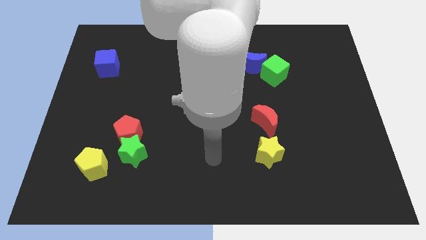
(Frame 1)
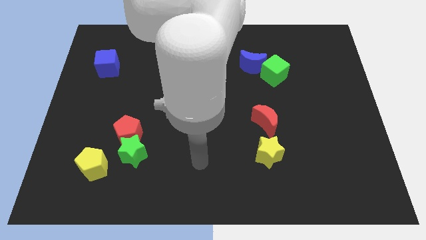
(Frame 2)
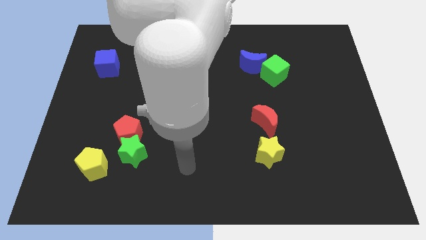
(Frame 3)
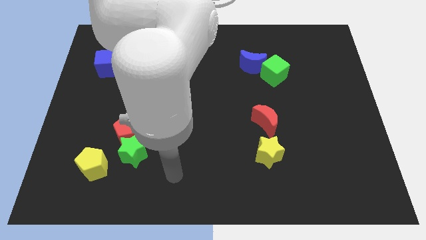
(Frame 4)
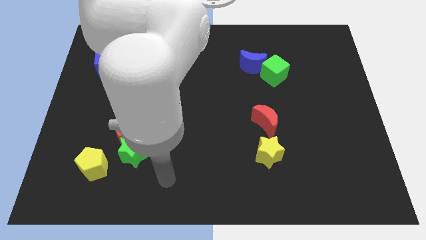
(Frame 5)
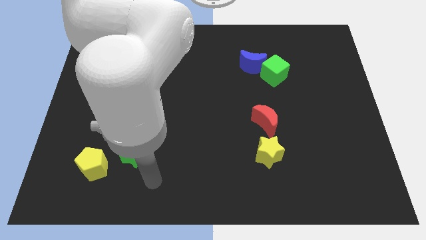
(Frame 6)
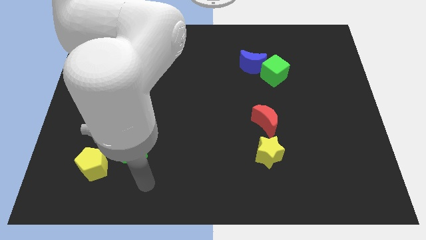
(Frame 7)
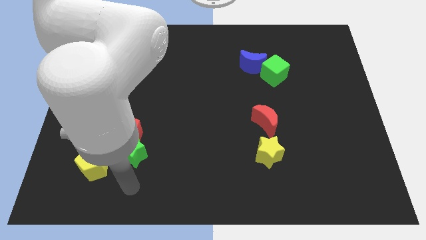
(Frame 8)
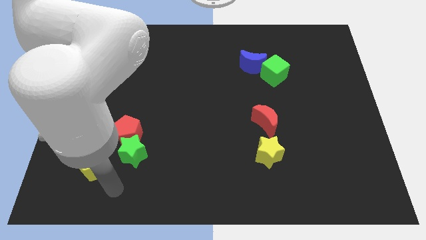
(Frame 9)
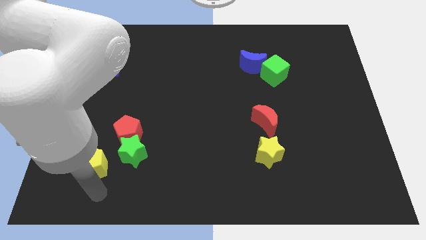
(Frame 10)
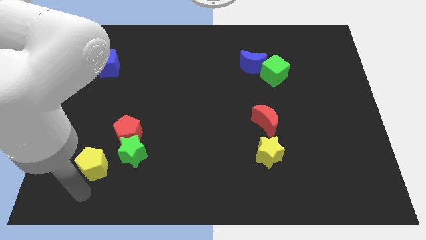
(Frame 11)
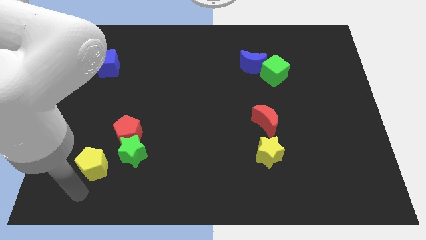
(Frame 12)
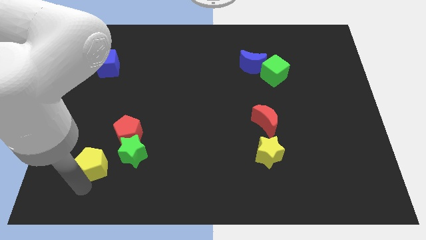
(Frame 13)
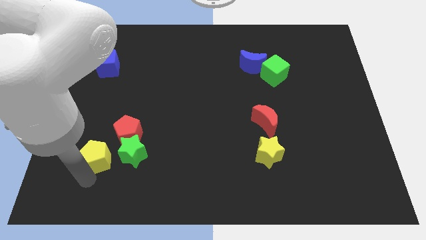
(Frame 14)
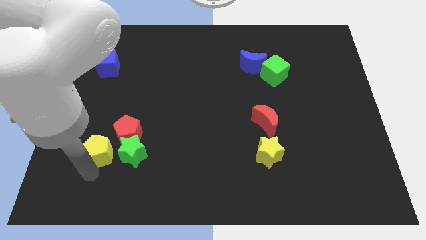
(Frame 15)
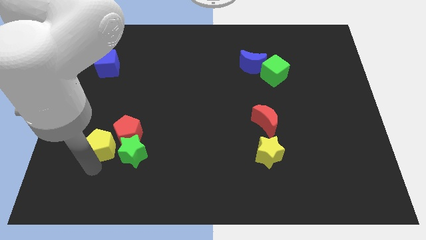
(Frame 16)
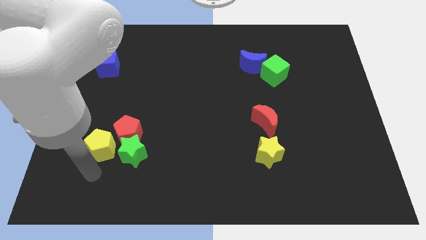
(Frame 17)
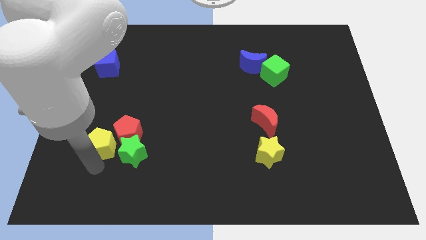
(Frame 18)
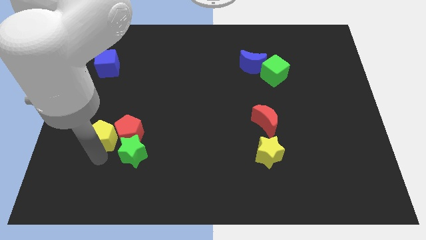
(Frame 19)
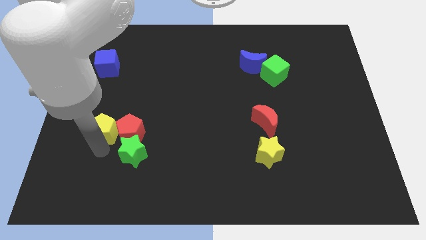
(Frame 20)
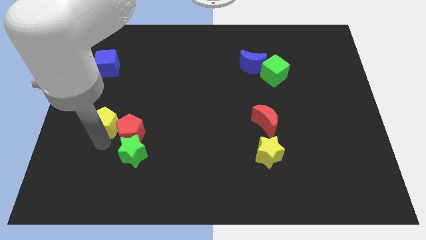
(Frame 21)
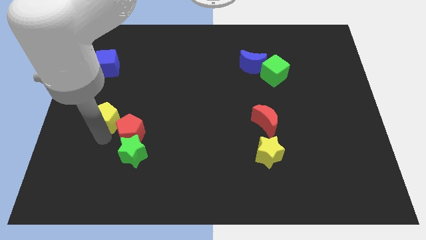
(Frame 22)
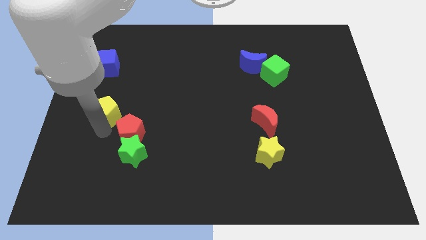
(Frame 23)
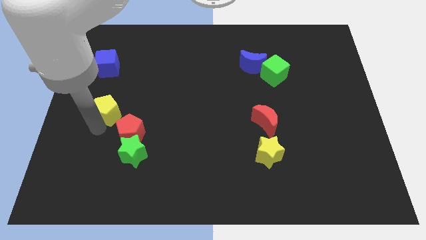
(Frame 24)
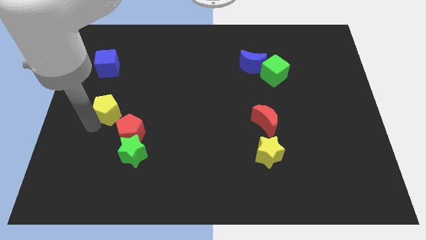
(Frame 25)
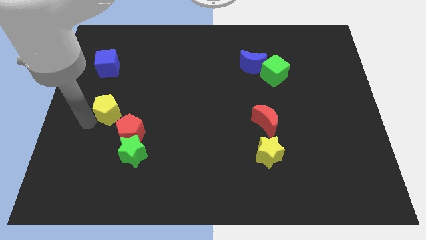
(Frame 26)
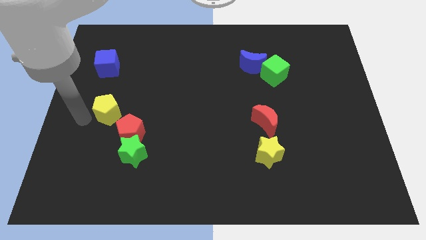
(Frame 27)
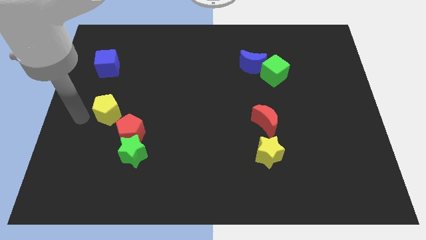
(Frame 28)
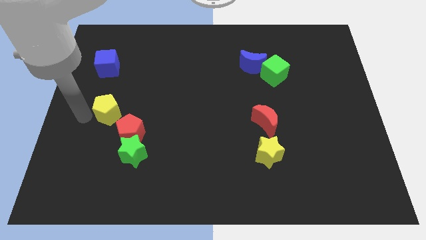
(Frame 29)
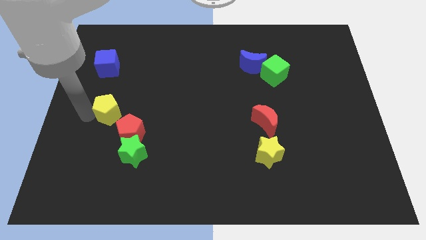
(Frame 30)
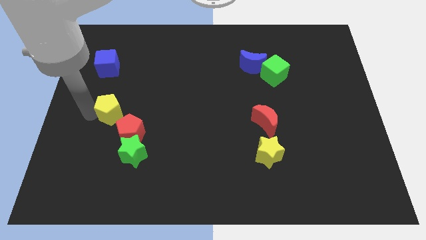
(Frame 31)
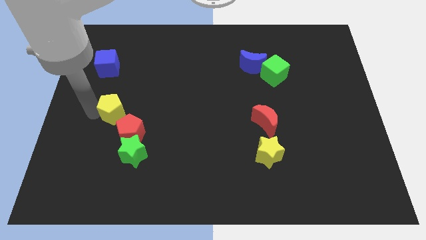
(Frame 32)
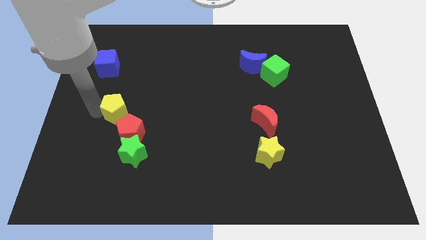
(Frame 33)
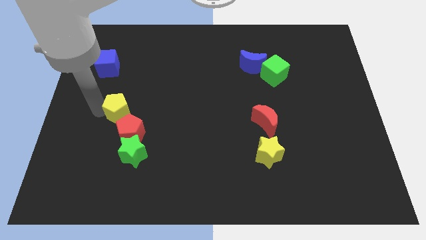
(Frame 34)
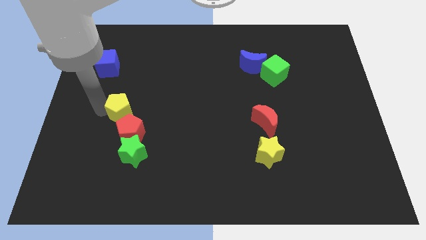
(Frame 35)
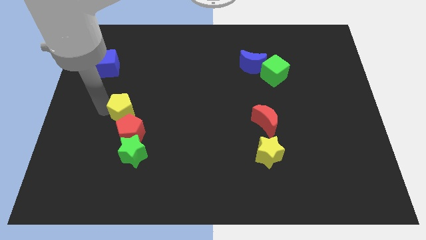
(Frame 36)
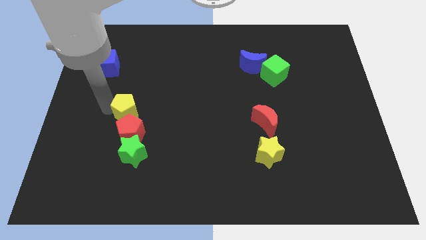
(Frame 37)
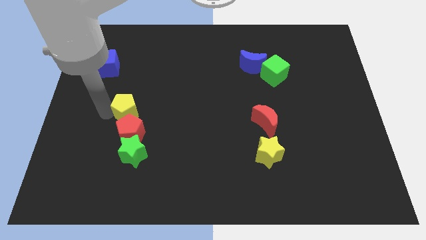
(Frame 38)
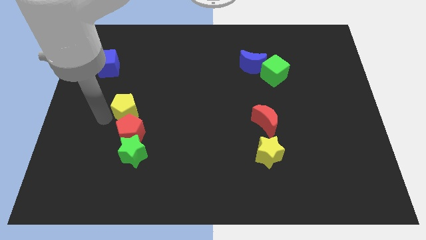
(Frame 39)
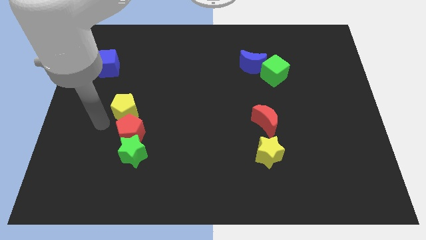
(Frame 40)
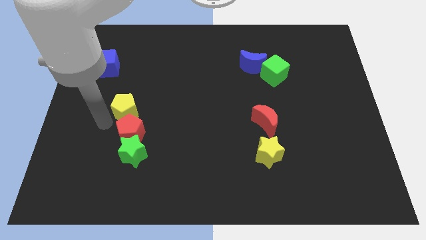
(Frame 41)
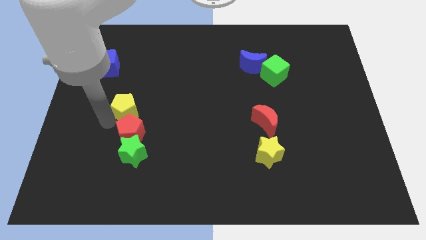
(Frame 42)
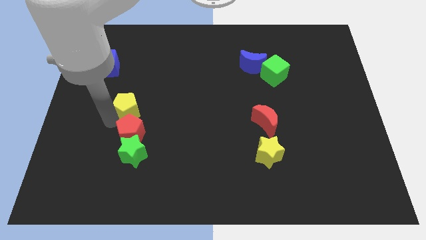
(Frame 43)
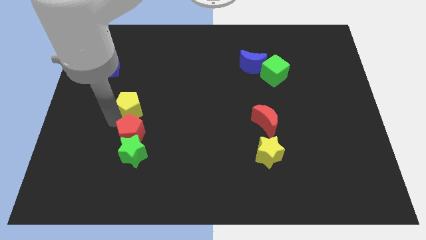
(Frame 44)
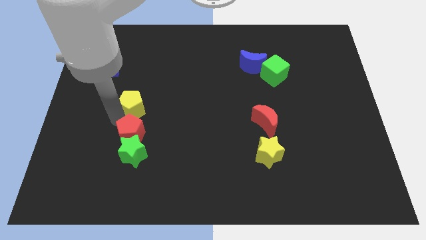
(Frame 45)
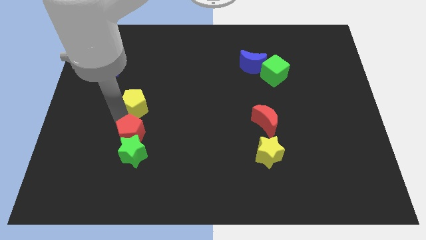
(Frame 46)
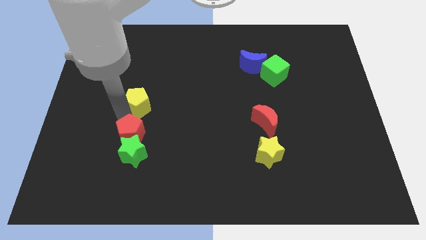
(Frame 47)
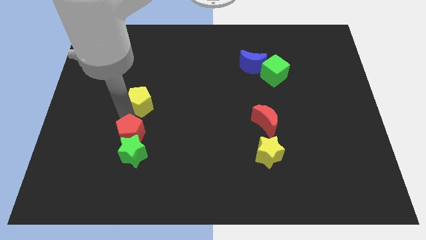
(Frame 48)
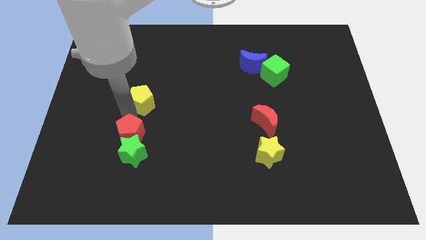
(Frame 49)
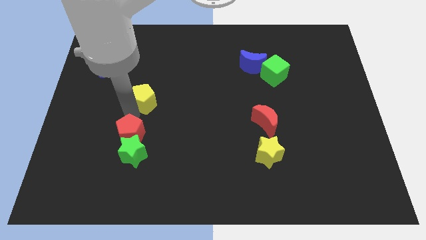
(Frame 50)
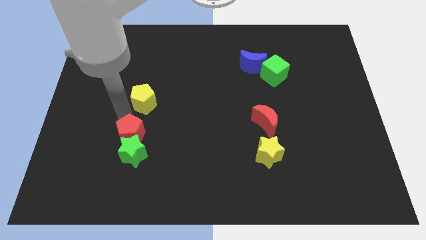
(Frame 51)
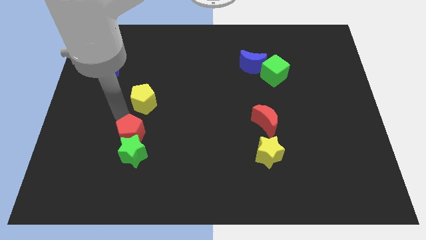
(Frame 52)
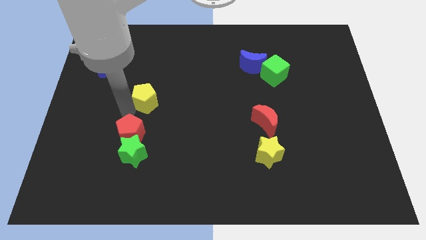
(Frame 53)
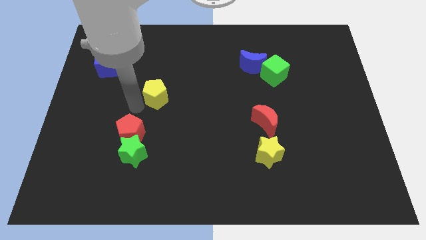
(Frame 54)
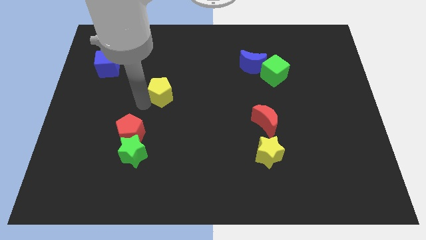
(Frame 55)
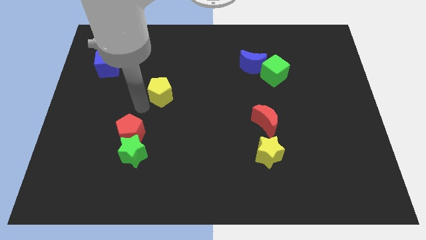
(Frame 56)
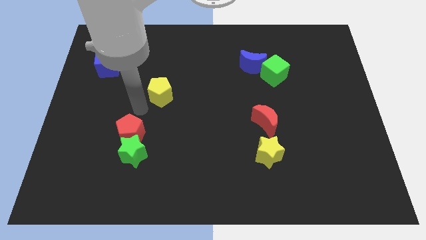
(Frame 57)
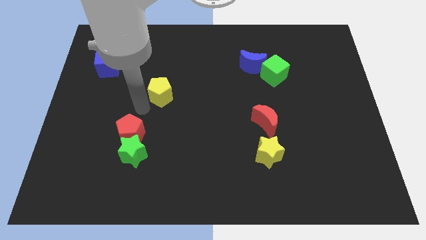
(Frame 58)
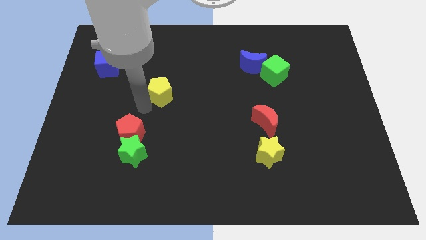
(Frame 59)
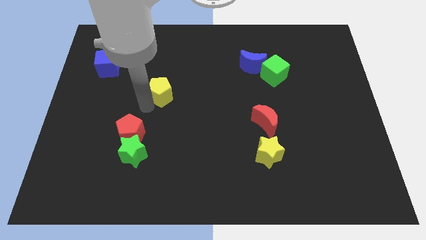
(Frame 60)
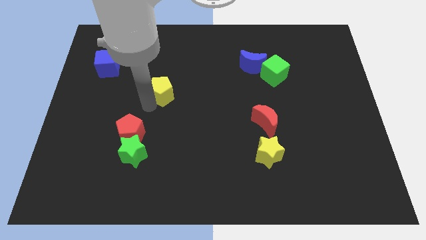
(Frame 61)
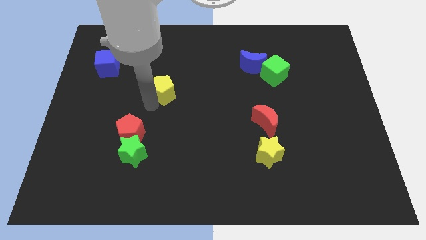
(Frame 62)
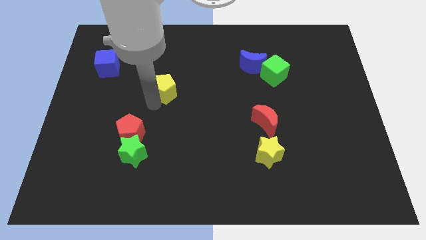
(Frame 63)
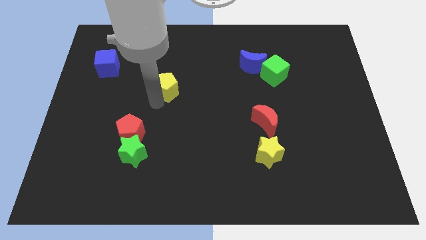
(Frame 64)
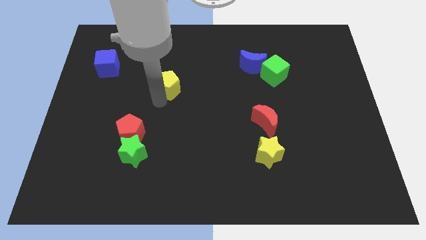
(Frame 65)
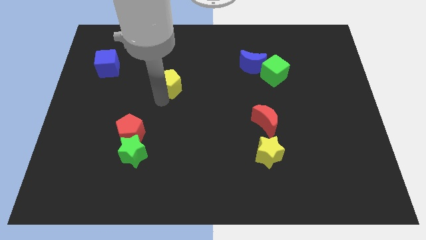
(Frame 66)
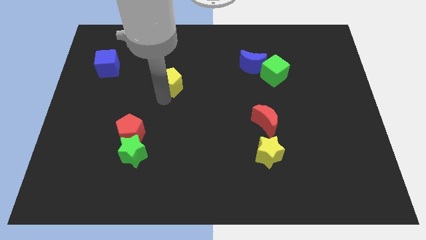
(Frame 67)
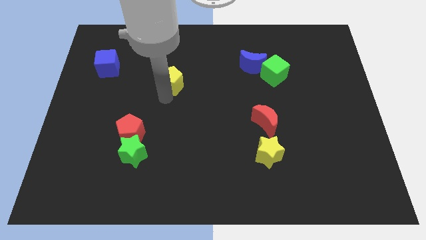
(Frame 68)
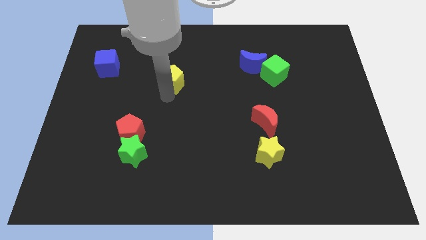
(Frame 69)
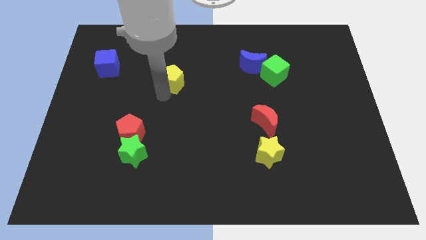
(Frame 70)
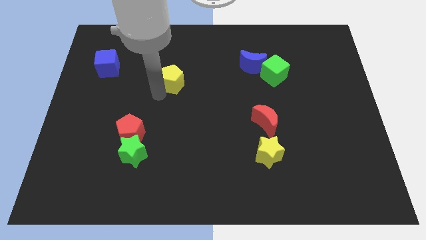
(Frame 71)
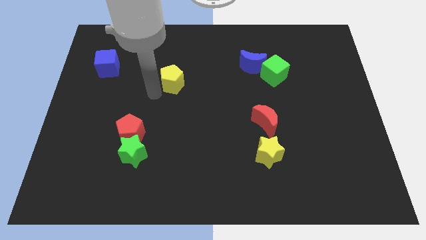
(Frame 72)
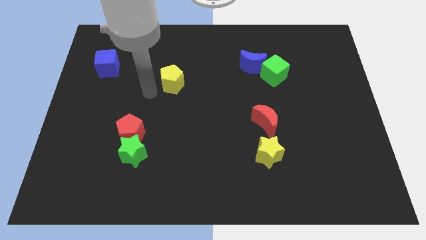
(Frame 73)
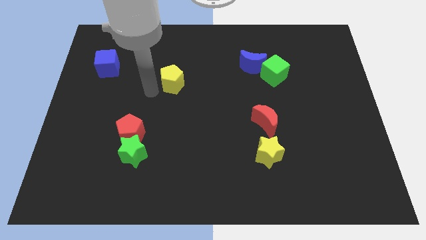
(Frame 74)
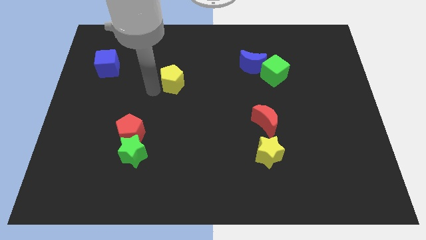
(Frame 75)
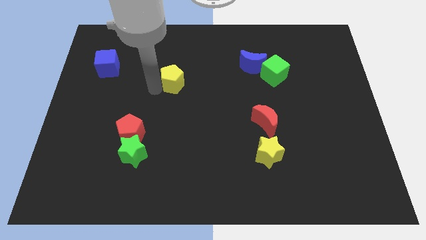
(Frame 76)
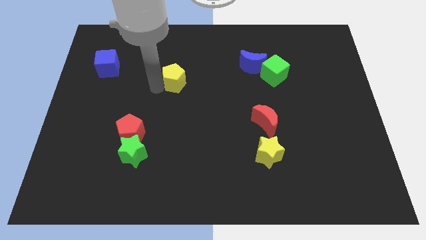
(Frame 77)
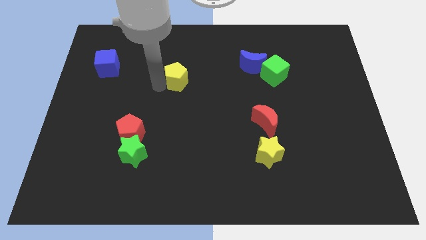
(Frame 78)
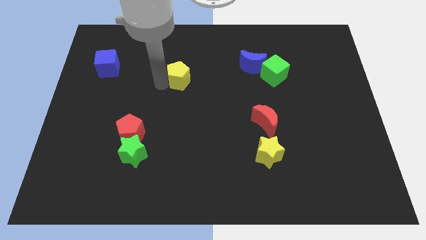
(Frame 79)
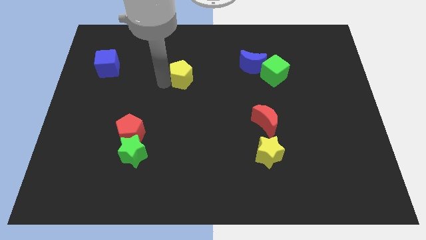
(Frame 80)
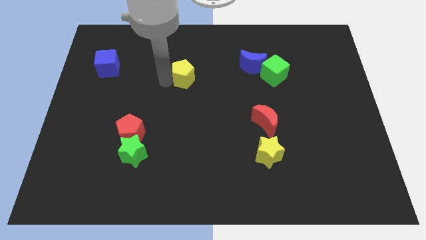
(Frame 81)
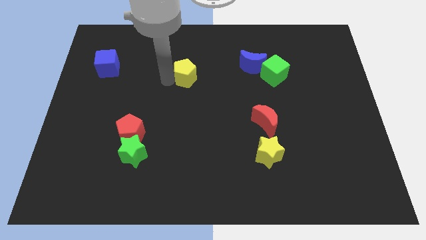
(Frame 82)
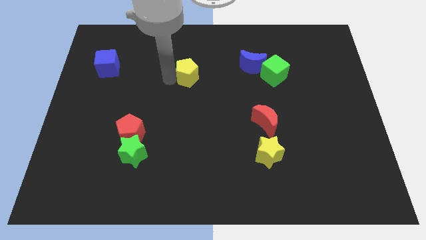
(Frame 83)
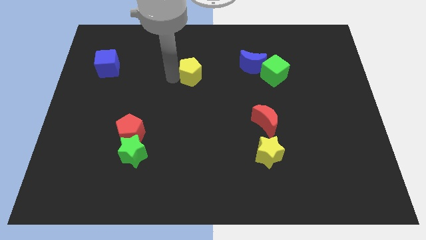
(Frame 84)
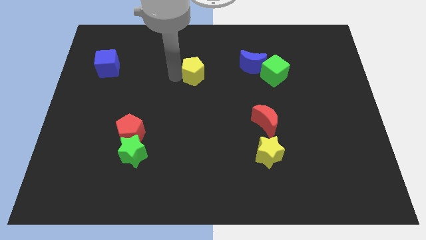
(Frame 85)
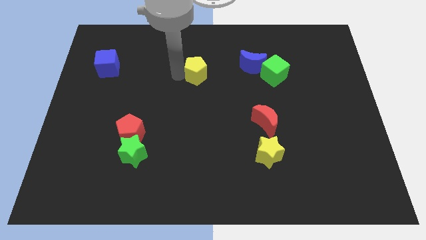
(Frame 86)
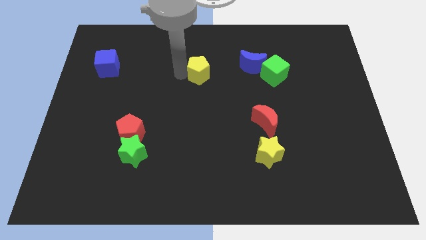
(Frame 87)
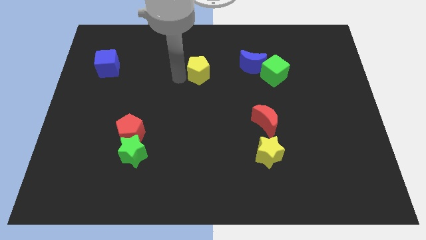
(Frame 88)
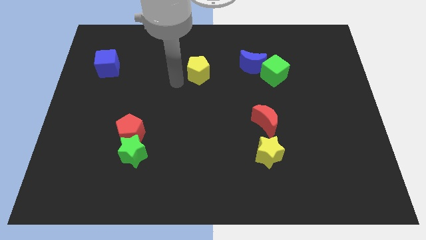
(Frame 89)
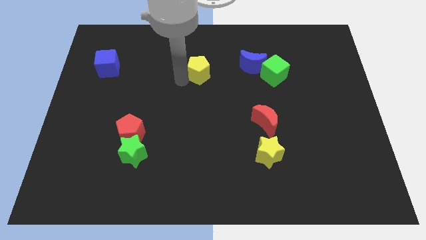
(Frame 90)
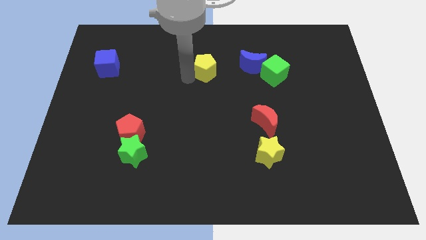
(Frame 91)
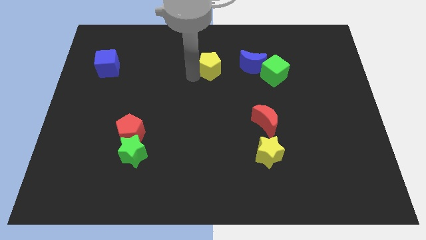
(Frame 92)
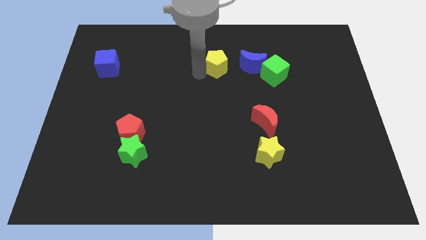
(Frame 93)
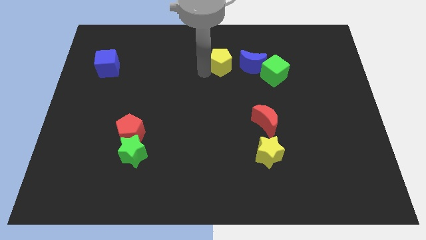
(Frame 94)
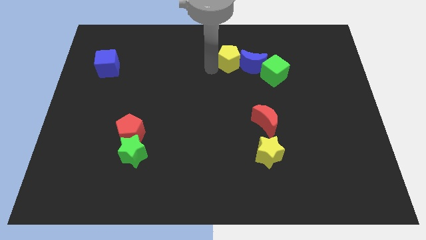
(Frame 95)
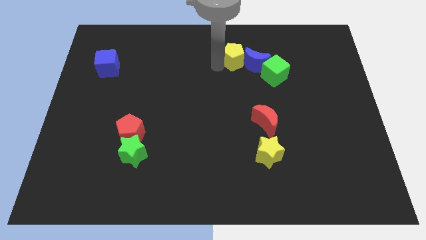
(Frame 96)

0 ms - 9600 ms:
push the yellow pentagon diagonally up and to the left of the green cube
